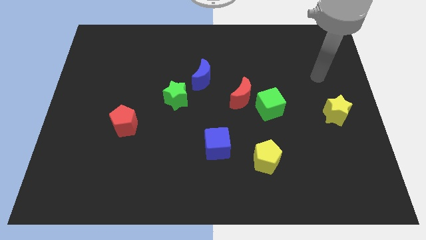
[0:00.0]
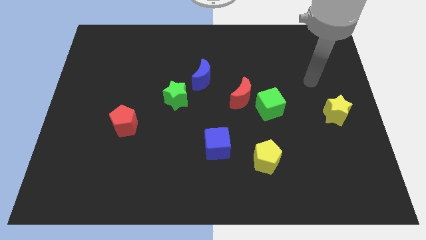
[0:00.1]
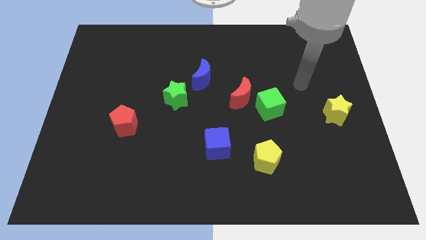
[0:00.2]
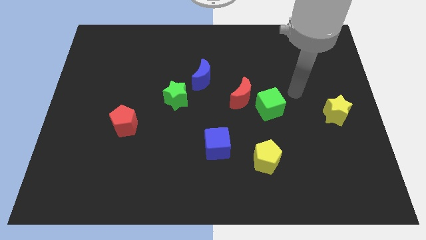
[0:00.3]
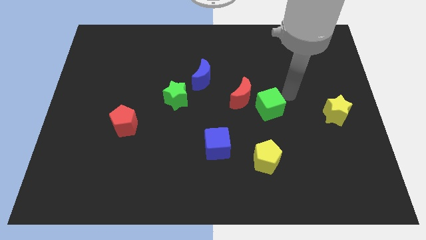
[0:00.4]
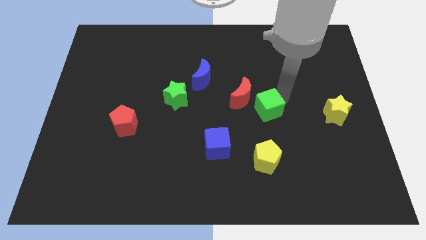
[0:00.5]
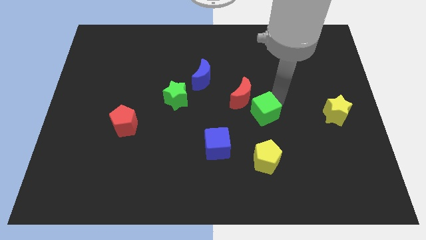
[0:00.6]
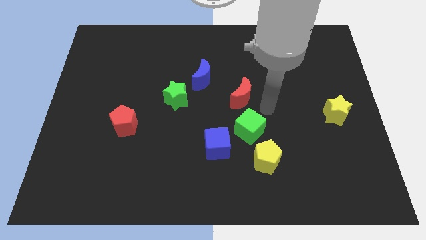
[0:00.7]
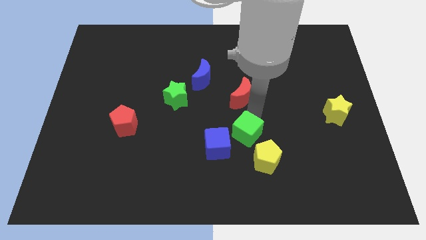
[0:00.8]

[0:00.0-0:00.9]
pull the red moon apart from the green cube

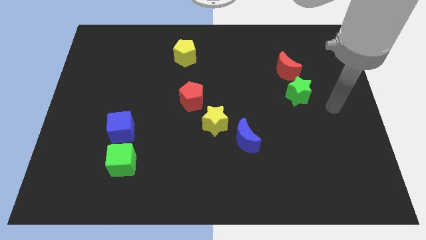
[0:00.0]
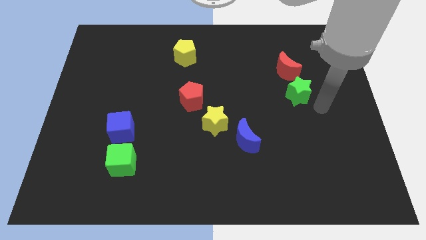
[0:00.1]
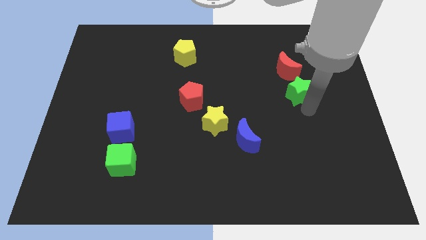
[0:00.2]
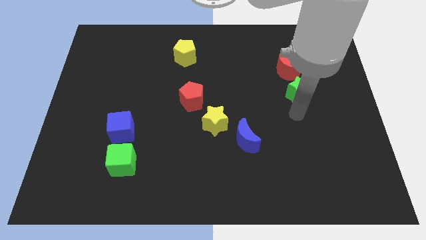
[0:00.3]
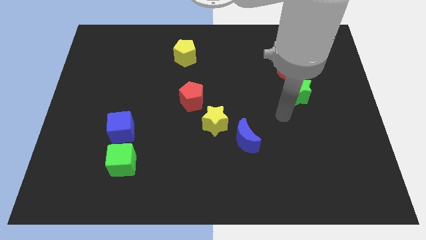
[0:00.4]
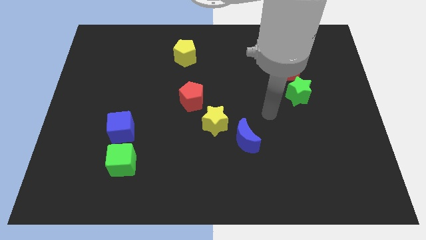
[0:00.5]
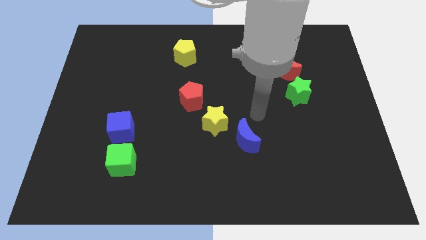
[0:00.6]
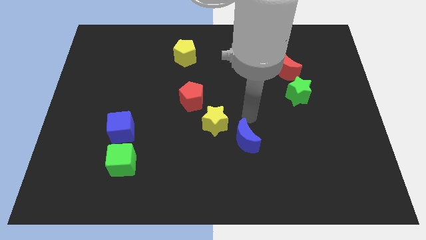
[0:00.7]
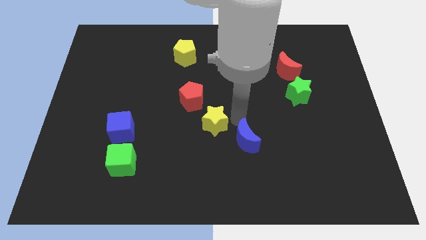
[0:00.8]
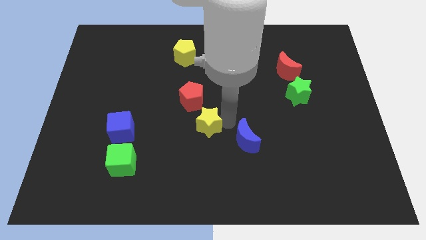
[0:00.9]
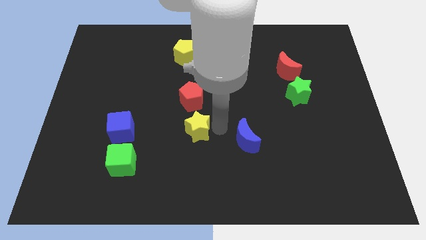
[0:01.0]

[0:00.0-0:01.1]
move the blue moon away from the yellow star

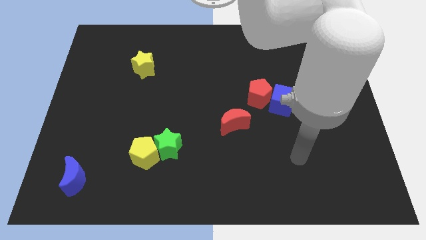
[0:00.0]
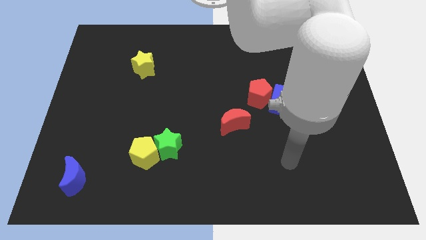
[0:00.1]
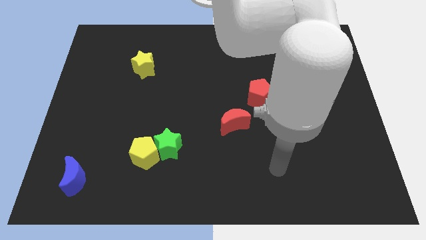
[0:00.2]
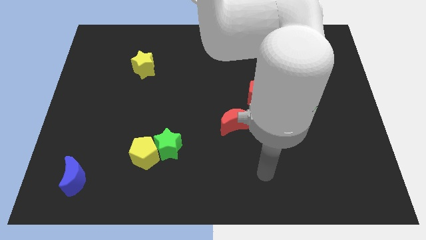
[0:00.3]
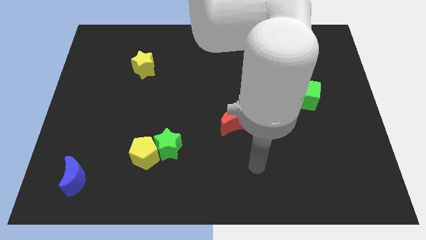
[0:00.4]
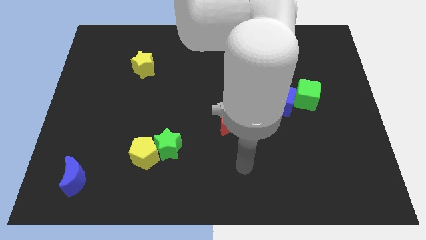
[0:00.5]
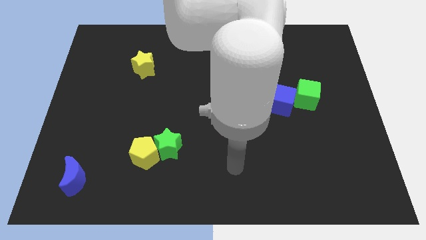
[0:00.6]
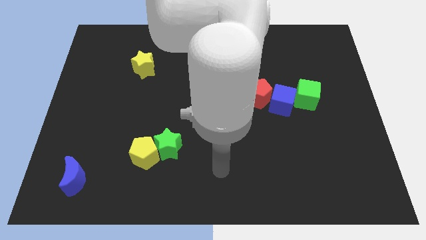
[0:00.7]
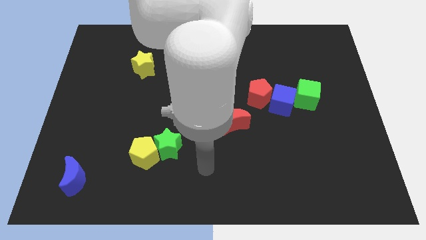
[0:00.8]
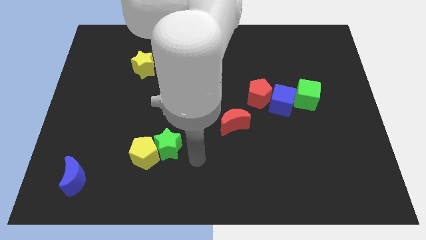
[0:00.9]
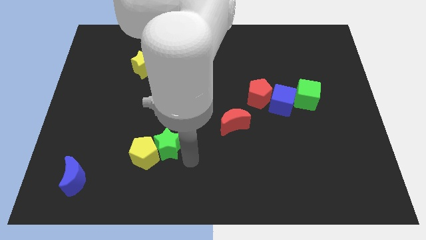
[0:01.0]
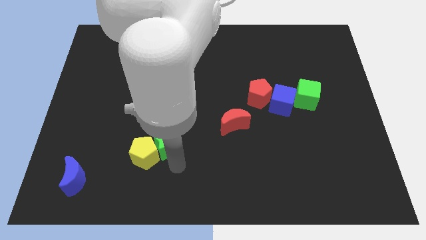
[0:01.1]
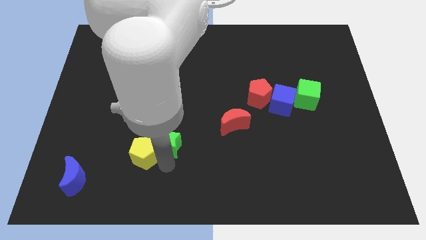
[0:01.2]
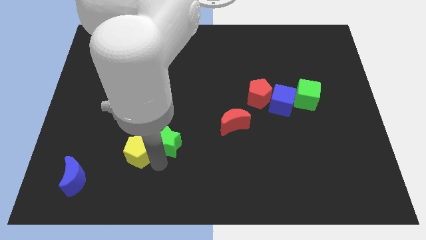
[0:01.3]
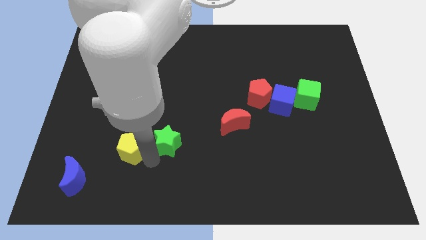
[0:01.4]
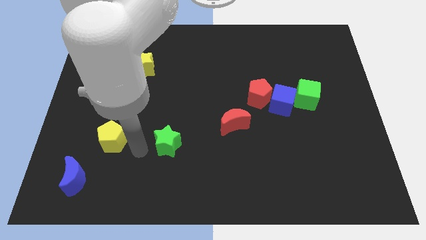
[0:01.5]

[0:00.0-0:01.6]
move the green star away from the yellow pentagon

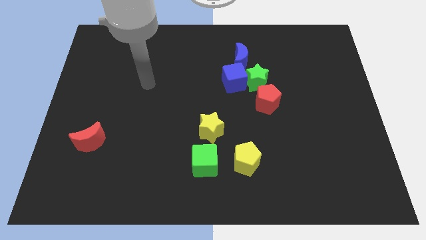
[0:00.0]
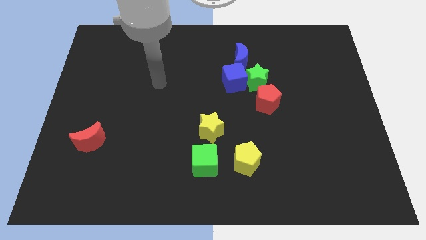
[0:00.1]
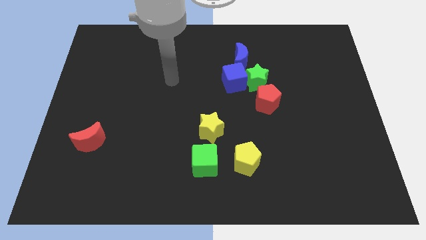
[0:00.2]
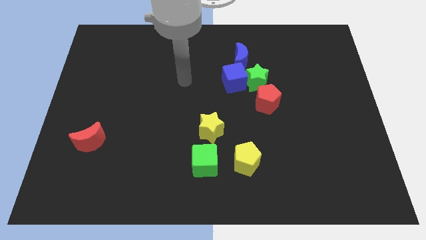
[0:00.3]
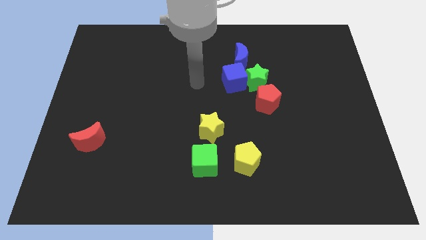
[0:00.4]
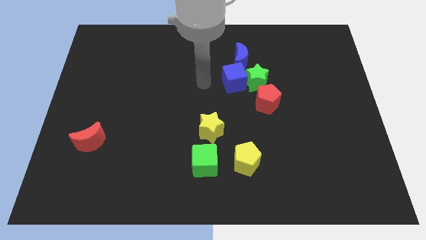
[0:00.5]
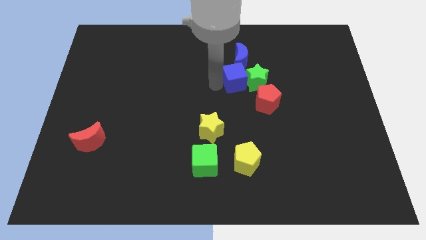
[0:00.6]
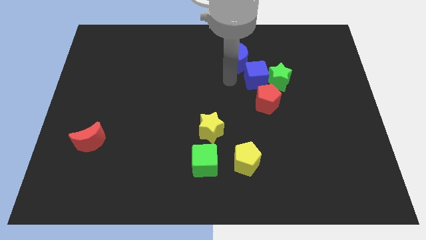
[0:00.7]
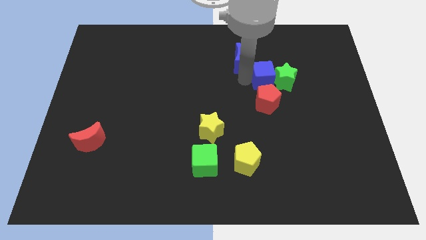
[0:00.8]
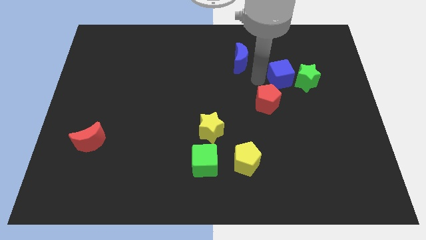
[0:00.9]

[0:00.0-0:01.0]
move the green star away from the blue cube, red pentagon, and blue moon

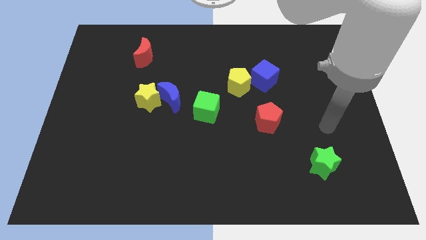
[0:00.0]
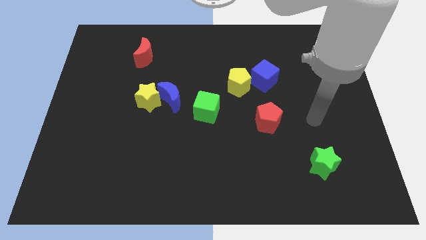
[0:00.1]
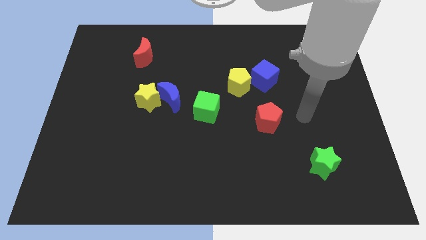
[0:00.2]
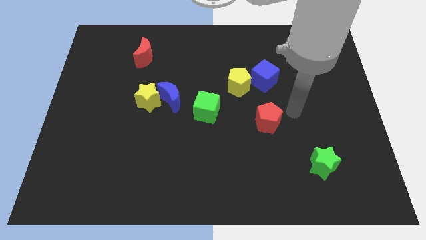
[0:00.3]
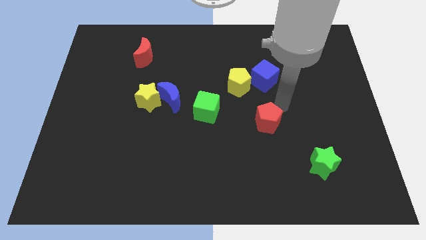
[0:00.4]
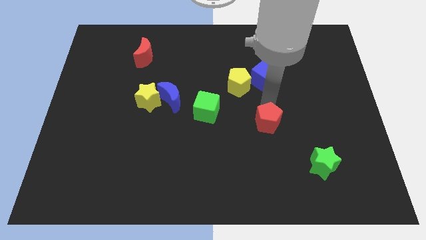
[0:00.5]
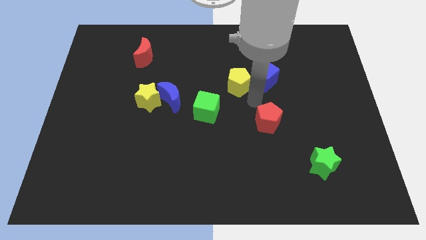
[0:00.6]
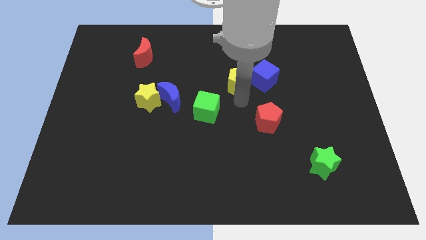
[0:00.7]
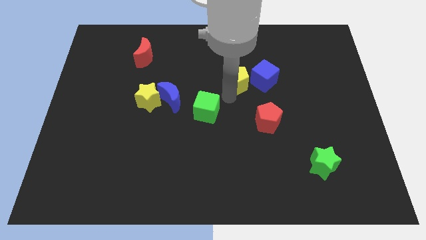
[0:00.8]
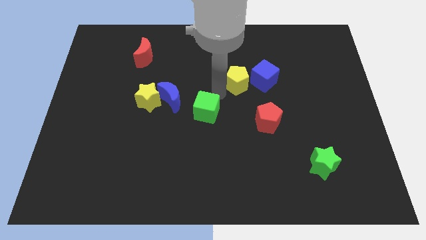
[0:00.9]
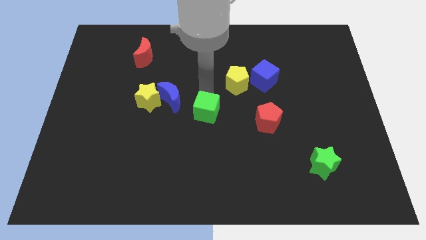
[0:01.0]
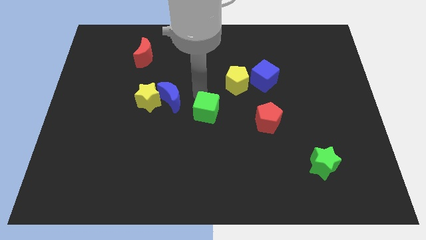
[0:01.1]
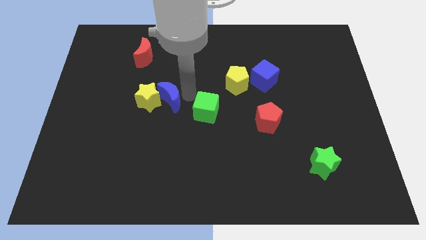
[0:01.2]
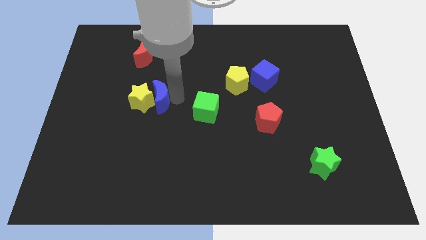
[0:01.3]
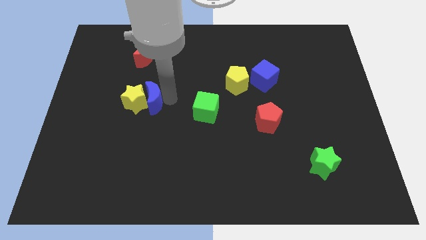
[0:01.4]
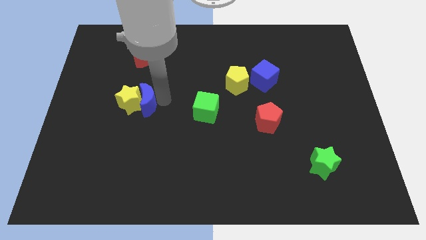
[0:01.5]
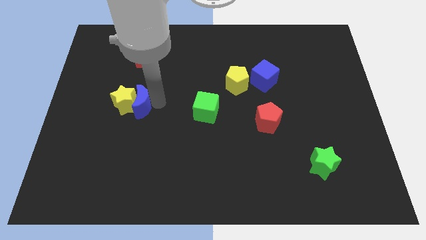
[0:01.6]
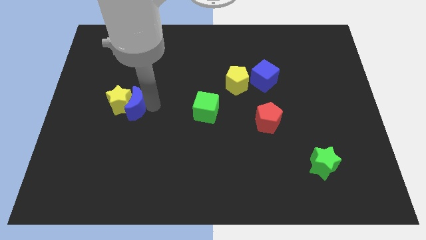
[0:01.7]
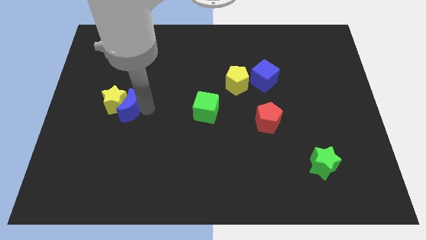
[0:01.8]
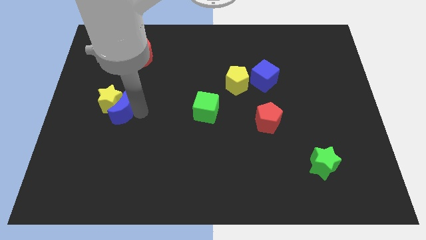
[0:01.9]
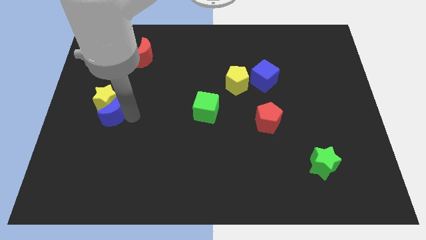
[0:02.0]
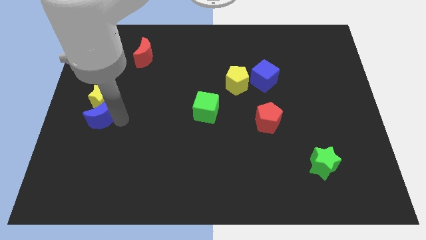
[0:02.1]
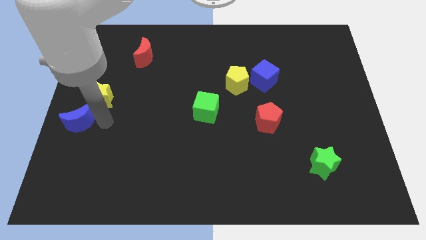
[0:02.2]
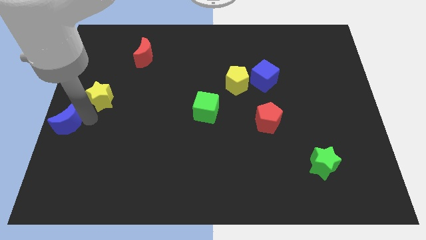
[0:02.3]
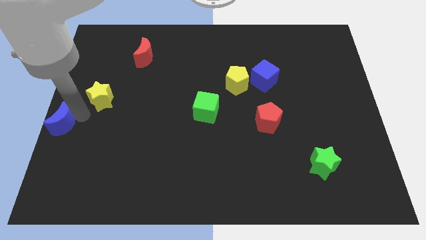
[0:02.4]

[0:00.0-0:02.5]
pull the yellow star apart from the blue moon

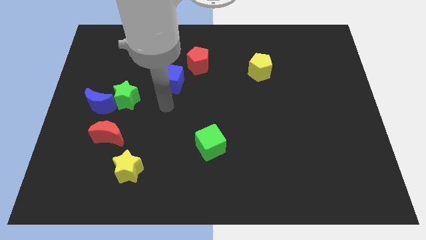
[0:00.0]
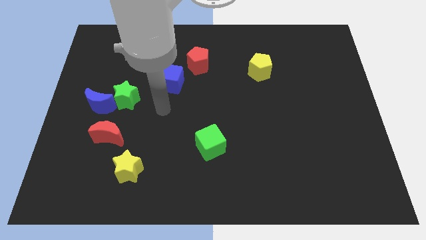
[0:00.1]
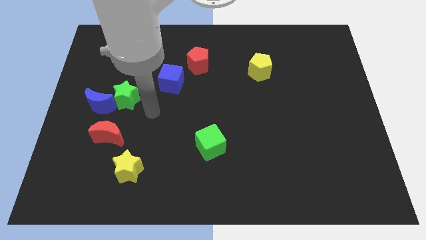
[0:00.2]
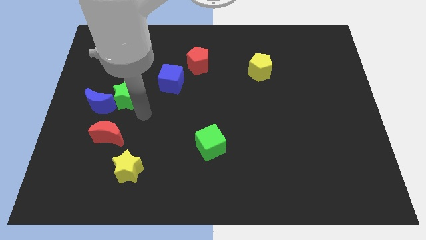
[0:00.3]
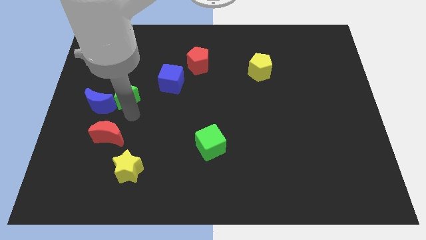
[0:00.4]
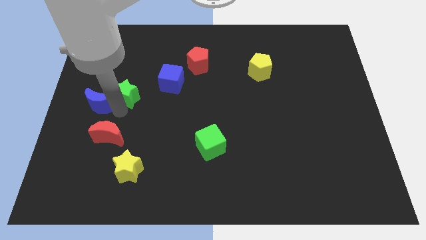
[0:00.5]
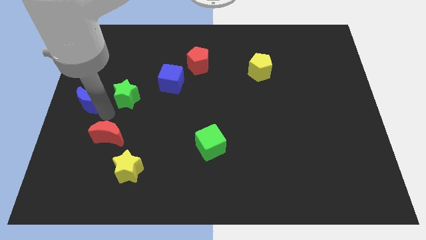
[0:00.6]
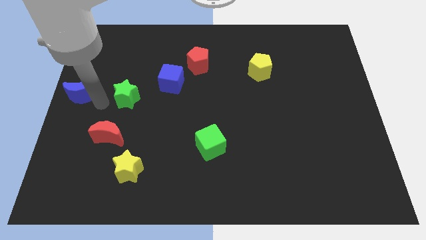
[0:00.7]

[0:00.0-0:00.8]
move the green star away from the blue moon

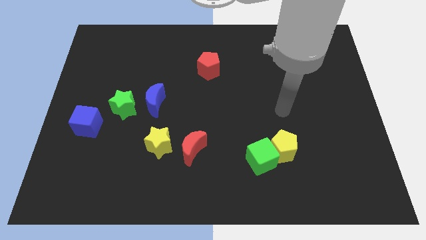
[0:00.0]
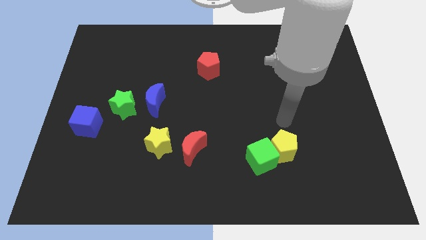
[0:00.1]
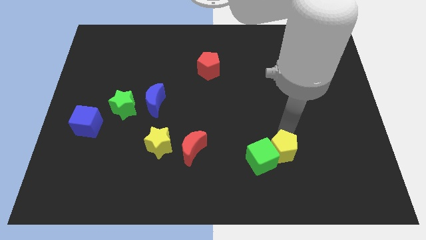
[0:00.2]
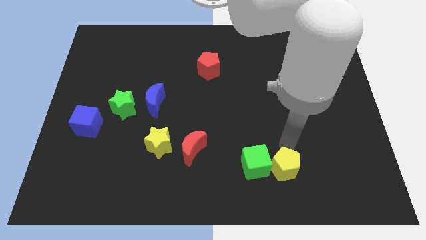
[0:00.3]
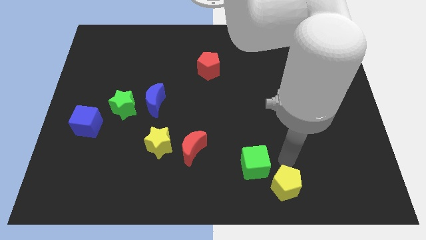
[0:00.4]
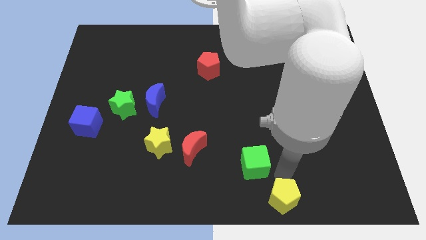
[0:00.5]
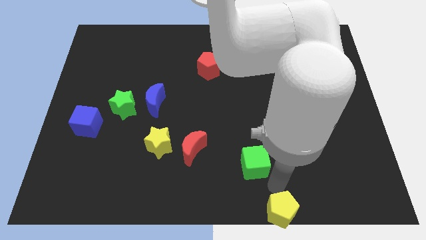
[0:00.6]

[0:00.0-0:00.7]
separate the green cube from the yellow pentagon

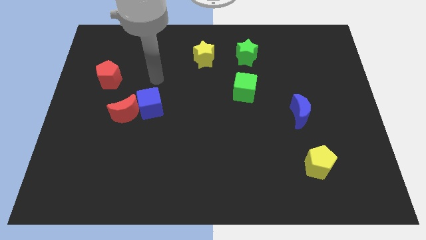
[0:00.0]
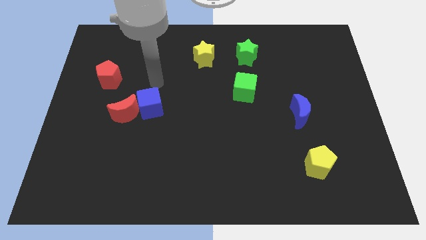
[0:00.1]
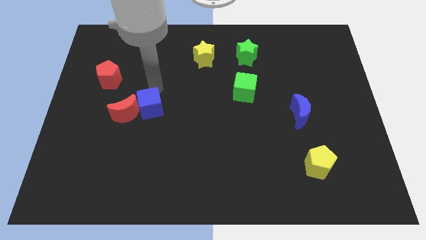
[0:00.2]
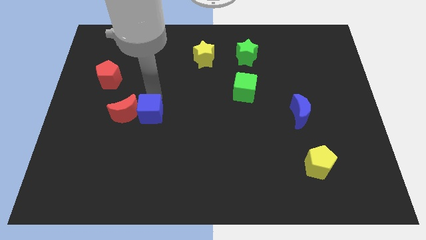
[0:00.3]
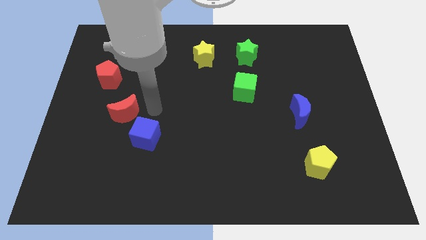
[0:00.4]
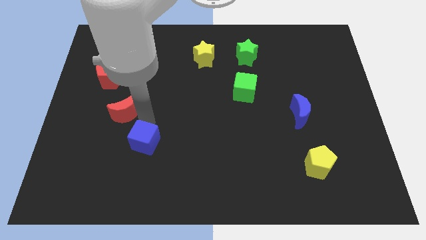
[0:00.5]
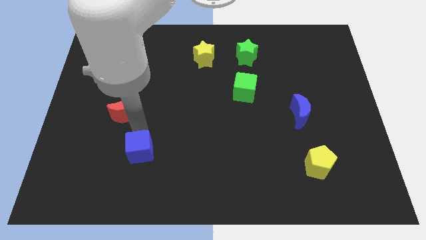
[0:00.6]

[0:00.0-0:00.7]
move the red moon away from the blue cube
